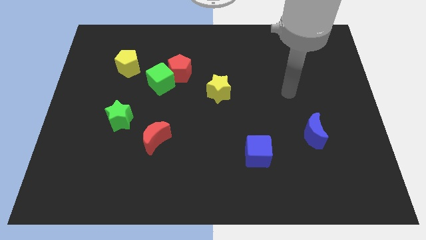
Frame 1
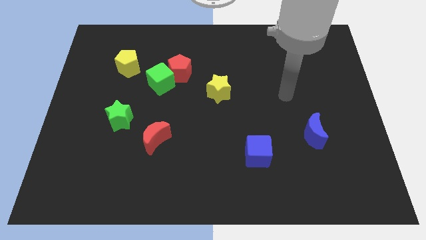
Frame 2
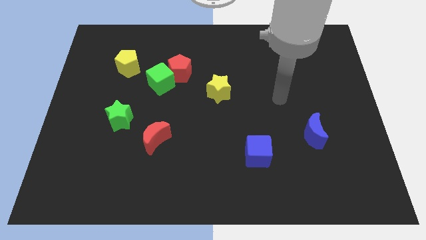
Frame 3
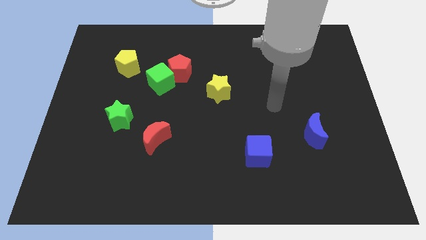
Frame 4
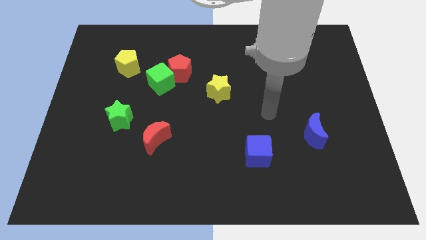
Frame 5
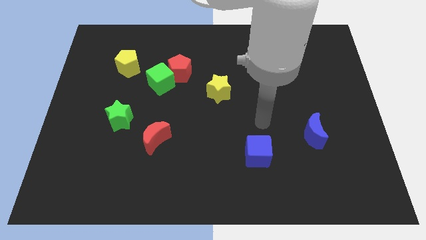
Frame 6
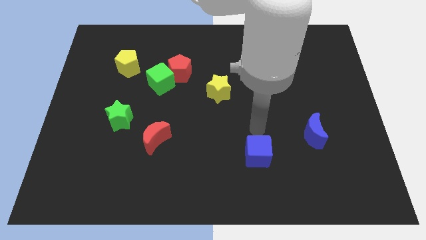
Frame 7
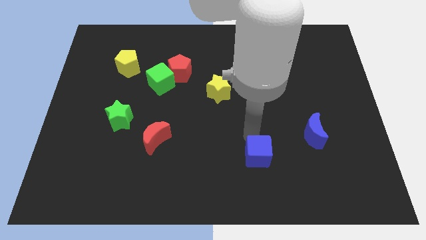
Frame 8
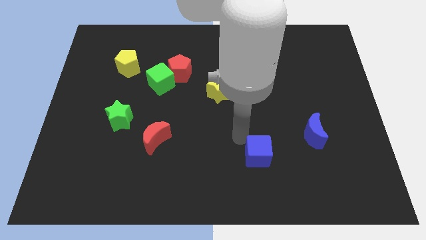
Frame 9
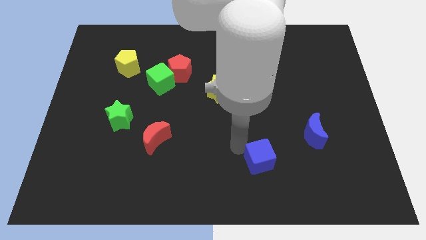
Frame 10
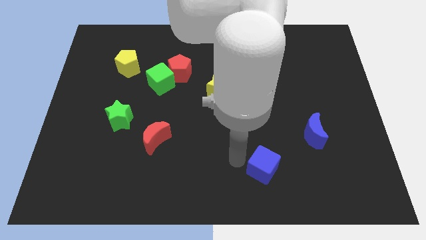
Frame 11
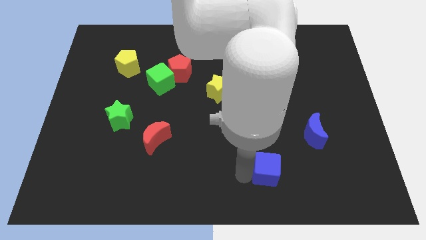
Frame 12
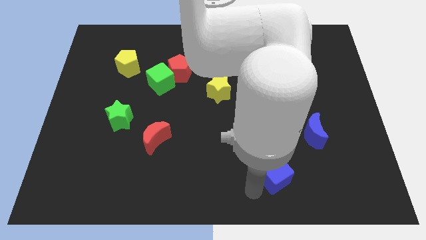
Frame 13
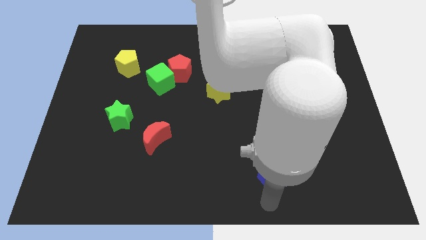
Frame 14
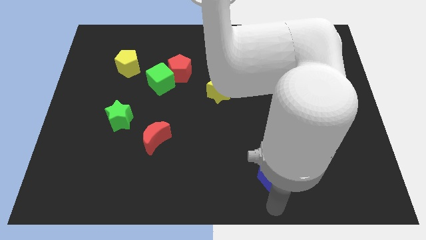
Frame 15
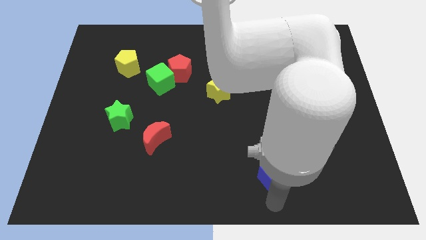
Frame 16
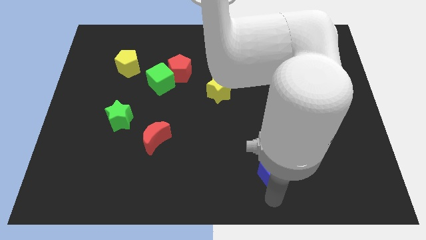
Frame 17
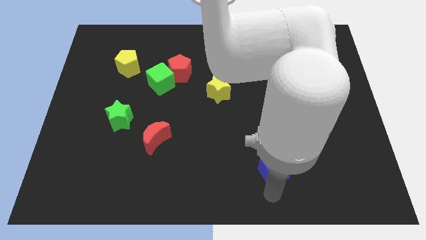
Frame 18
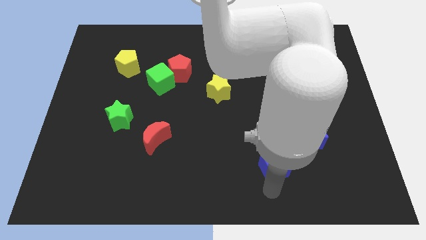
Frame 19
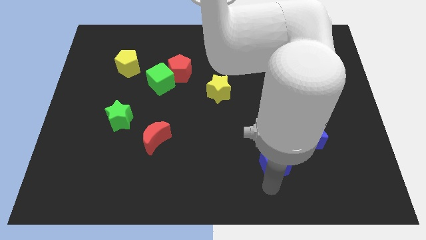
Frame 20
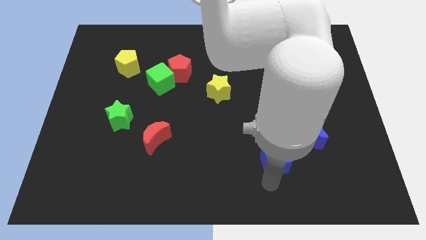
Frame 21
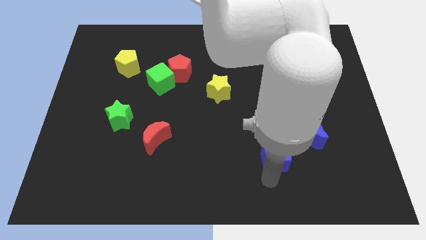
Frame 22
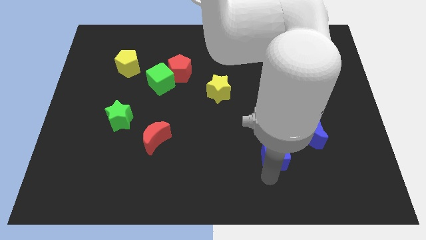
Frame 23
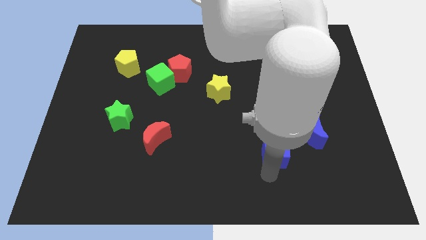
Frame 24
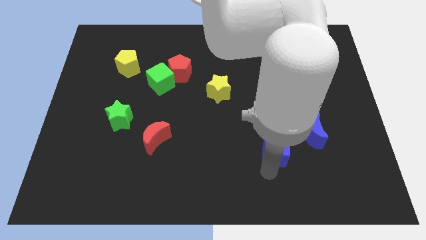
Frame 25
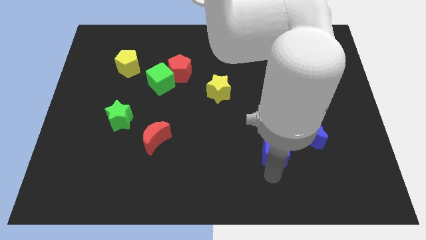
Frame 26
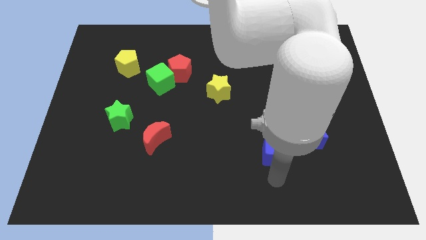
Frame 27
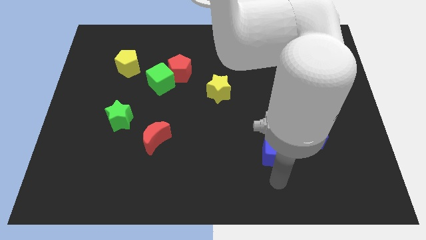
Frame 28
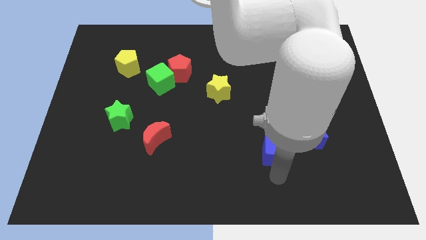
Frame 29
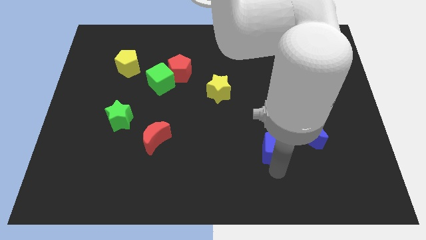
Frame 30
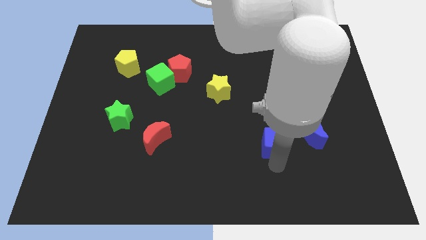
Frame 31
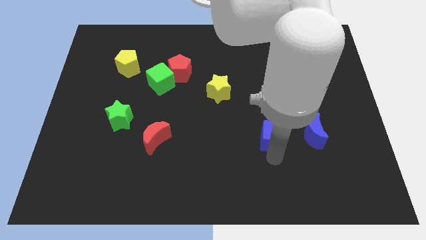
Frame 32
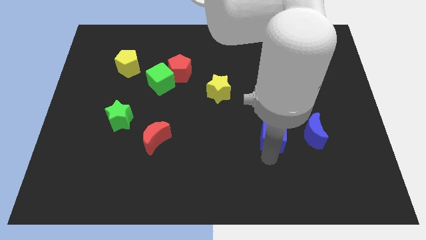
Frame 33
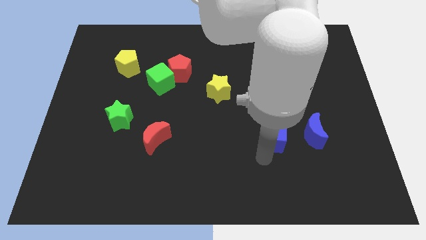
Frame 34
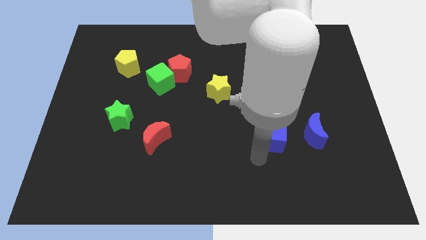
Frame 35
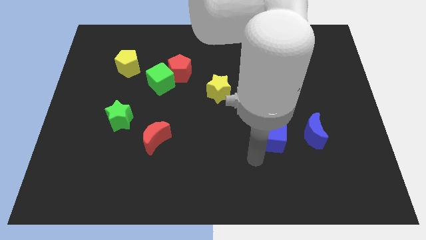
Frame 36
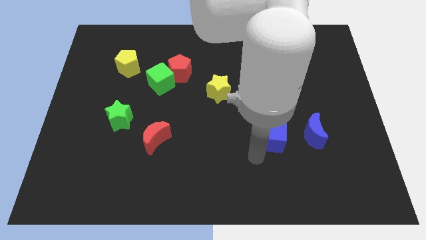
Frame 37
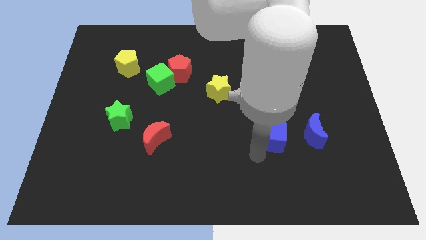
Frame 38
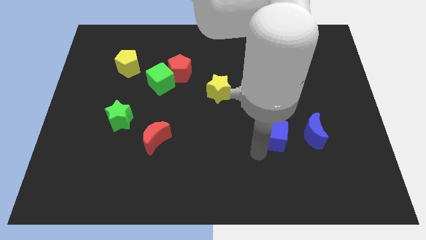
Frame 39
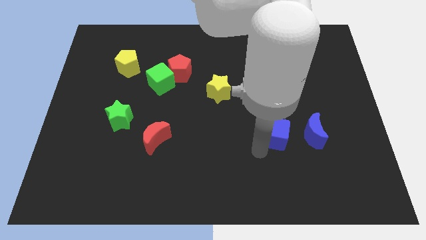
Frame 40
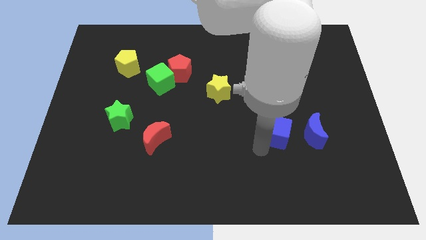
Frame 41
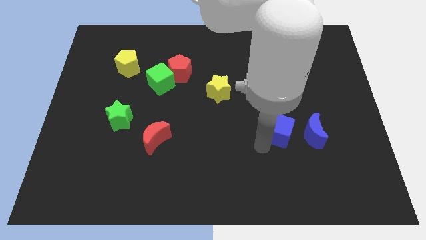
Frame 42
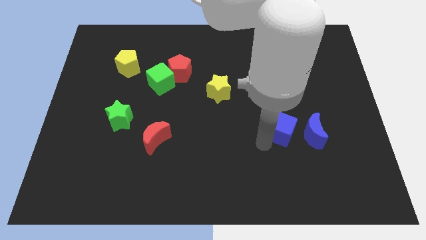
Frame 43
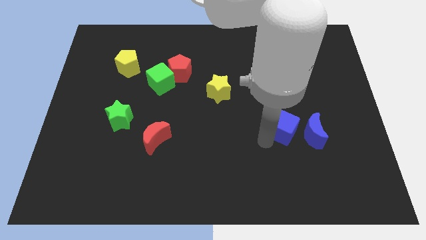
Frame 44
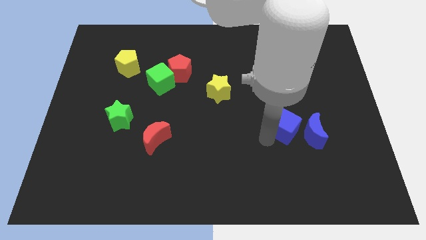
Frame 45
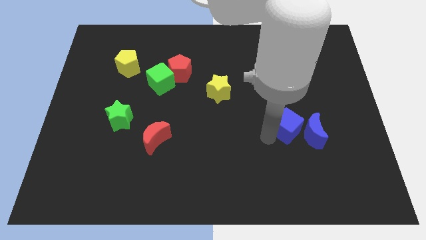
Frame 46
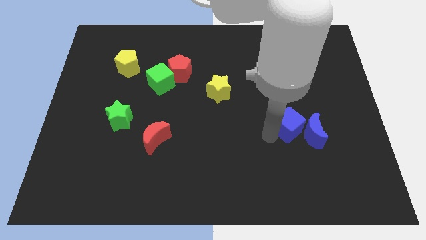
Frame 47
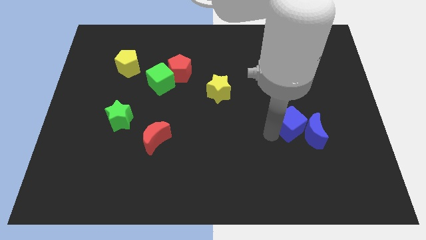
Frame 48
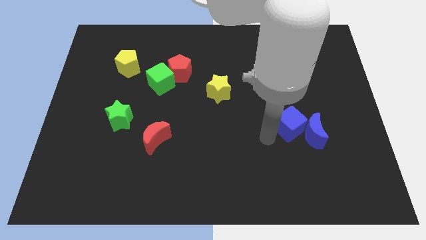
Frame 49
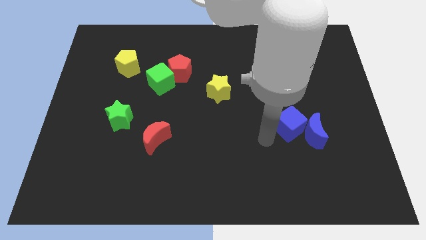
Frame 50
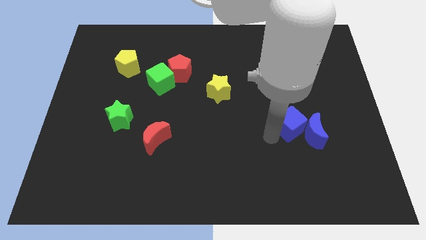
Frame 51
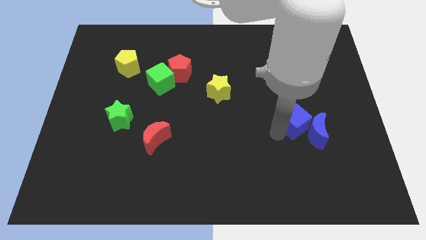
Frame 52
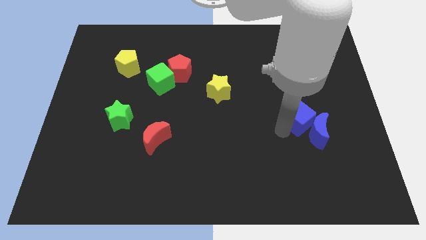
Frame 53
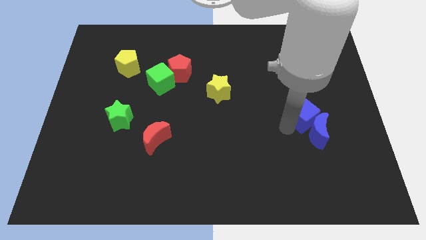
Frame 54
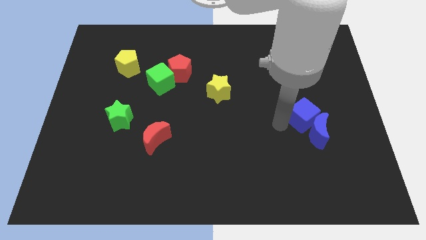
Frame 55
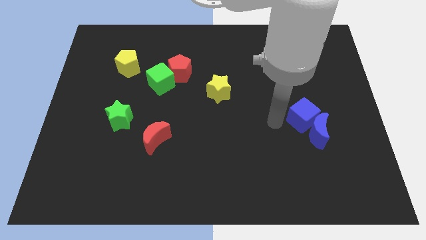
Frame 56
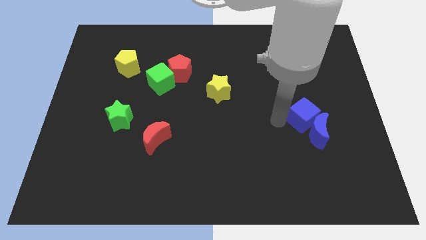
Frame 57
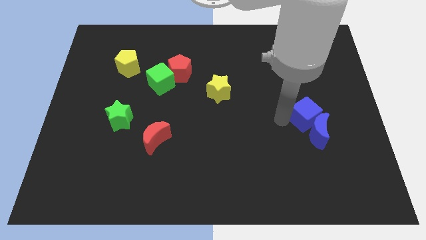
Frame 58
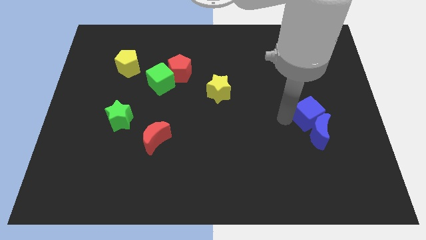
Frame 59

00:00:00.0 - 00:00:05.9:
slide the blue cube to the top right of the blue moon

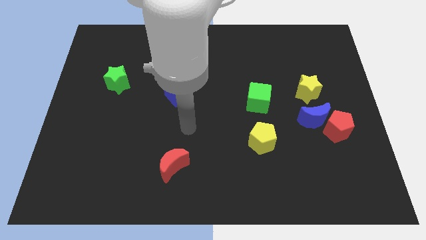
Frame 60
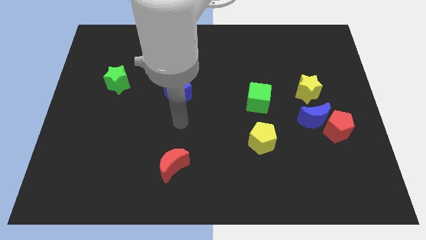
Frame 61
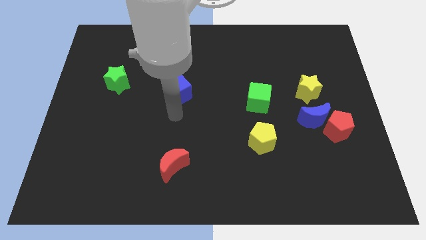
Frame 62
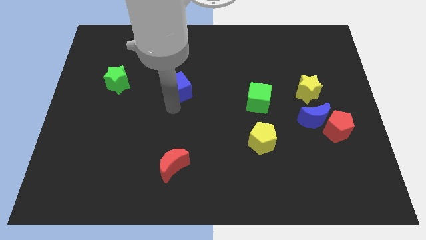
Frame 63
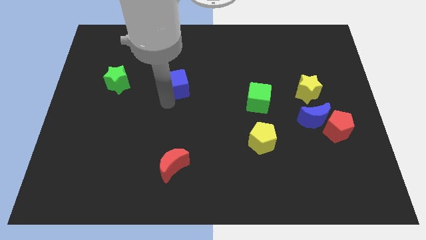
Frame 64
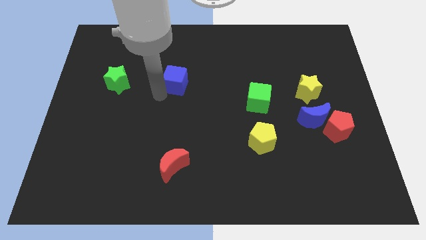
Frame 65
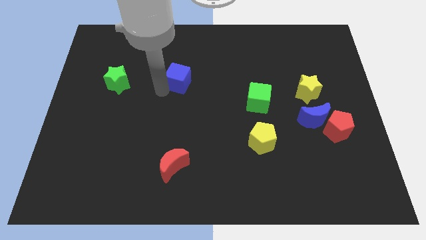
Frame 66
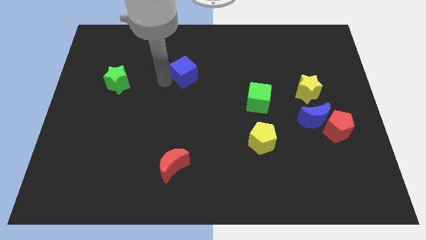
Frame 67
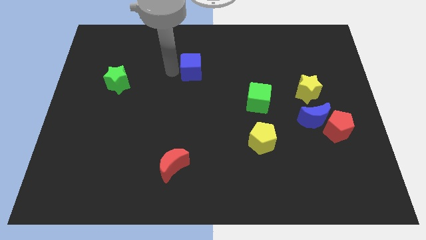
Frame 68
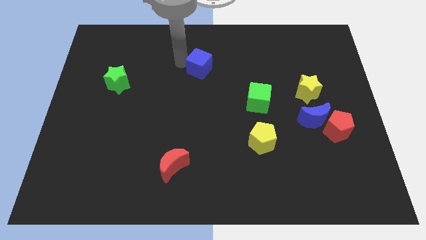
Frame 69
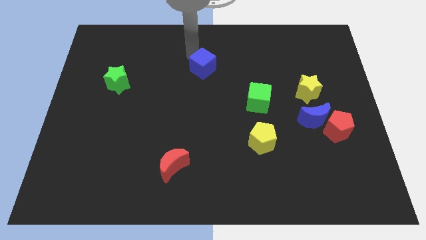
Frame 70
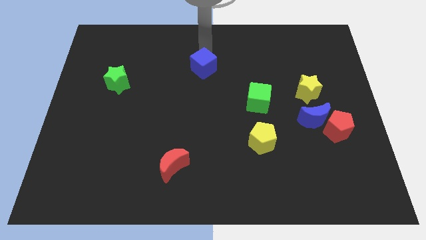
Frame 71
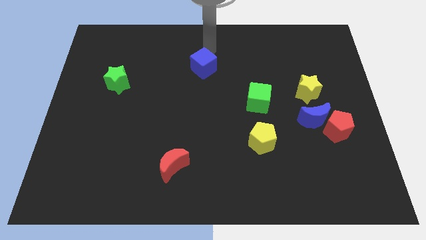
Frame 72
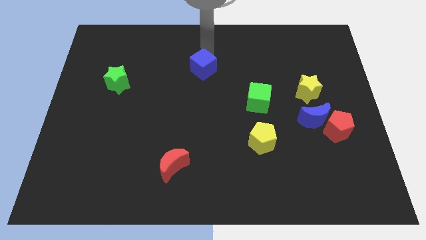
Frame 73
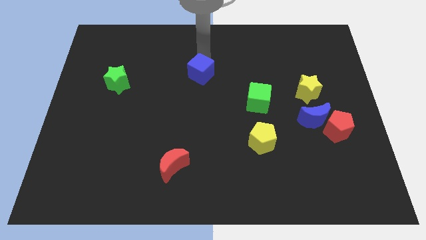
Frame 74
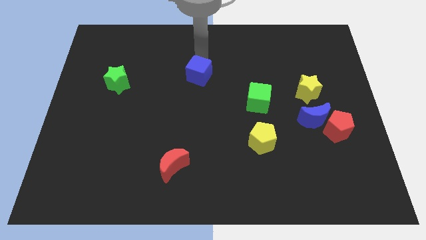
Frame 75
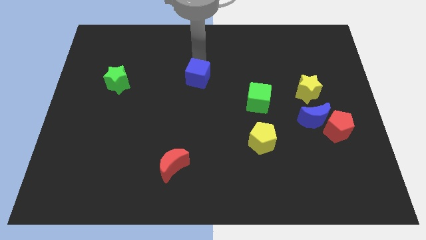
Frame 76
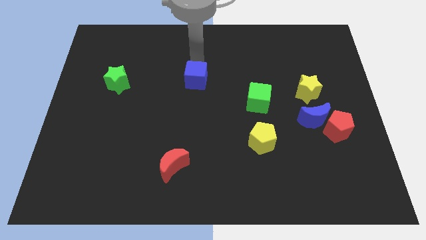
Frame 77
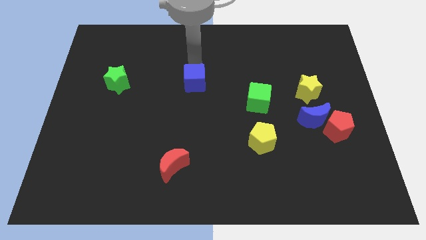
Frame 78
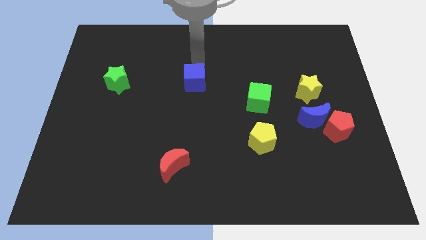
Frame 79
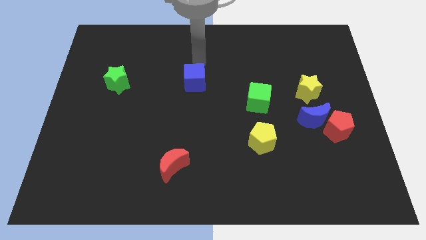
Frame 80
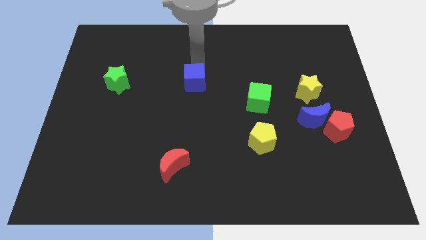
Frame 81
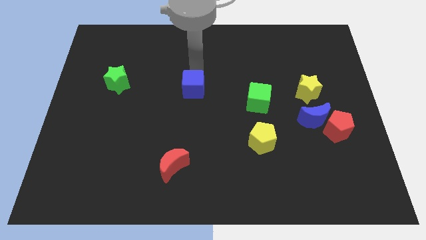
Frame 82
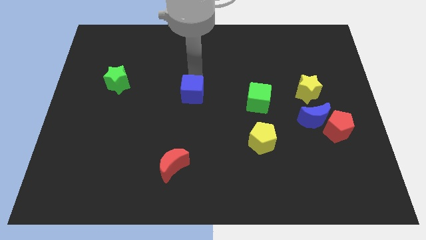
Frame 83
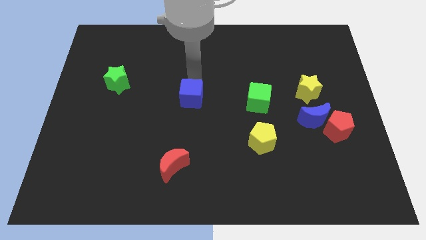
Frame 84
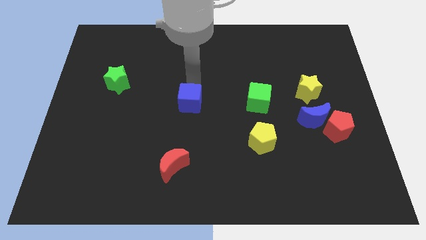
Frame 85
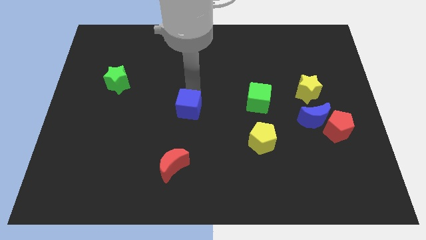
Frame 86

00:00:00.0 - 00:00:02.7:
move the blue cube to the top side of the red moon
